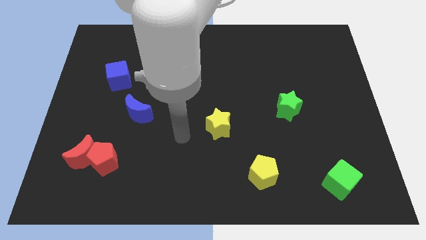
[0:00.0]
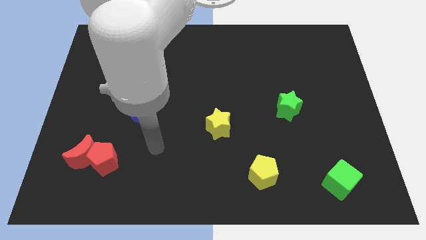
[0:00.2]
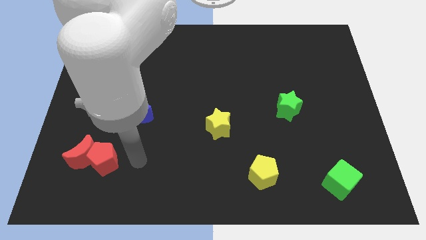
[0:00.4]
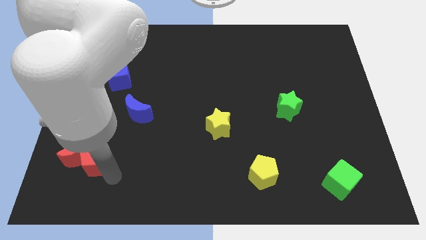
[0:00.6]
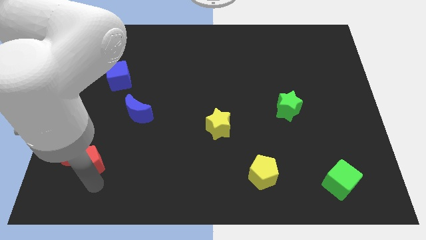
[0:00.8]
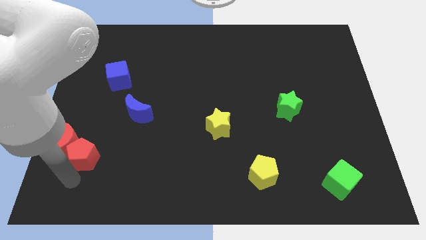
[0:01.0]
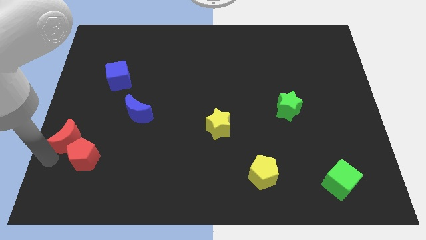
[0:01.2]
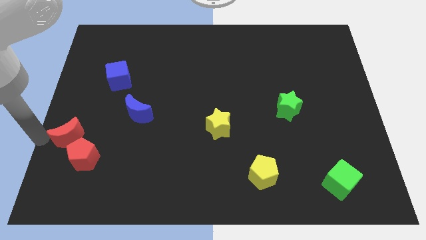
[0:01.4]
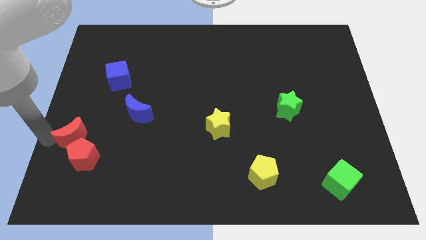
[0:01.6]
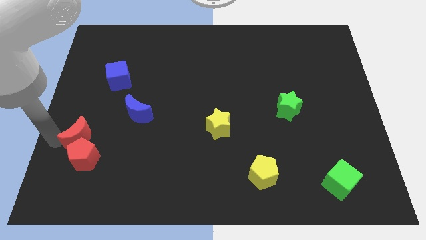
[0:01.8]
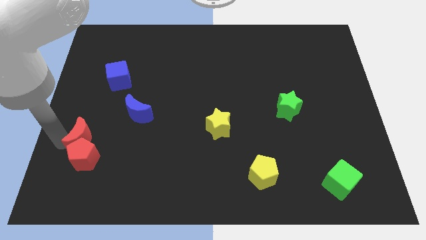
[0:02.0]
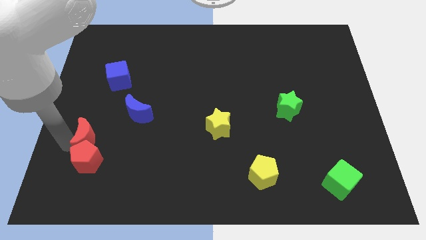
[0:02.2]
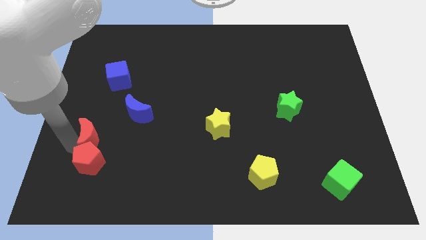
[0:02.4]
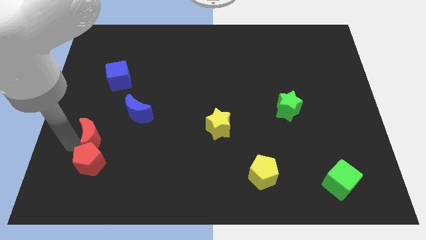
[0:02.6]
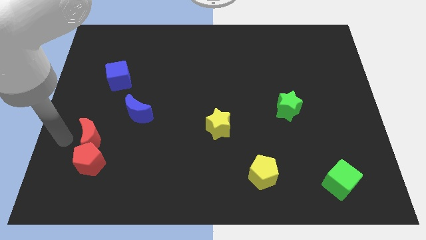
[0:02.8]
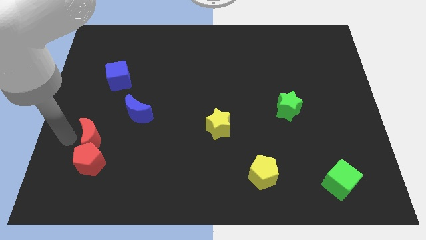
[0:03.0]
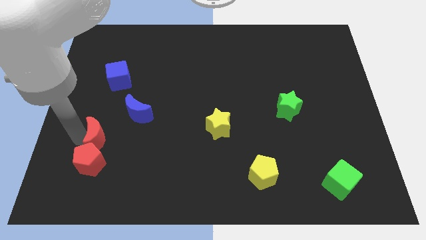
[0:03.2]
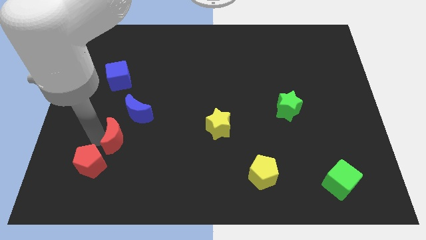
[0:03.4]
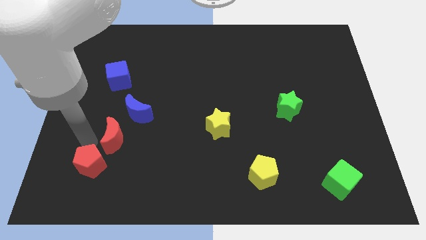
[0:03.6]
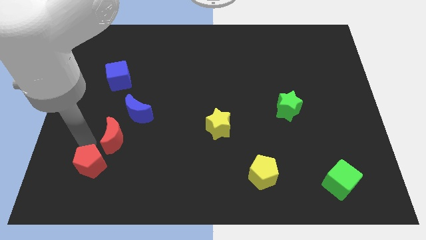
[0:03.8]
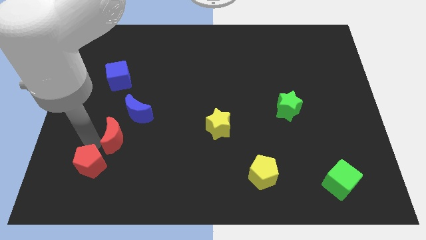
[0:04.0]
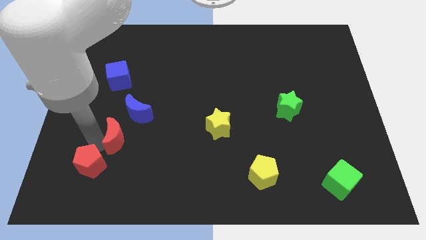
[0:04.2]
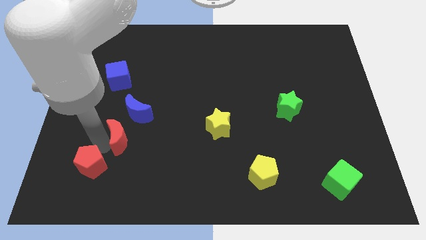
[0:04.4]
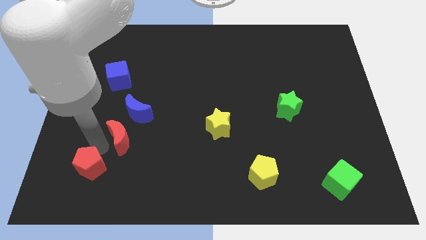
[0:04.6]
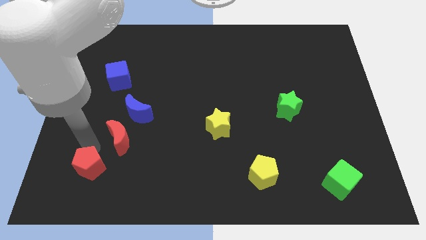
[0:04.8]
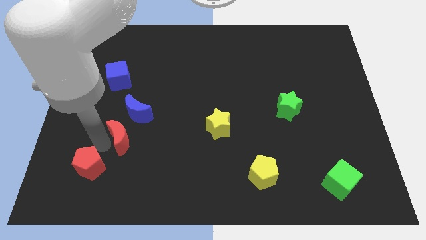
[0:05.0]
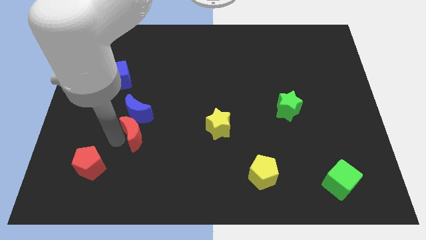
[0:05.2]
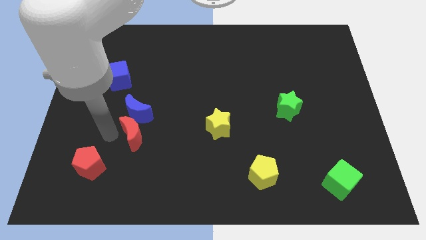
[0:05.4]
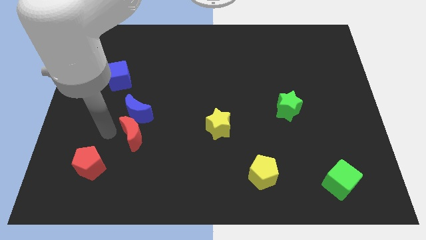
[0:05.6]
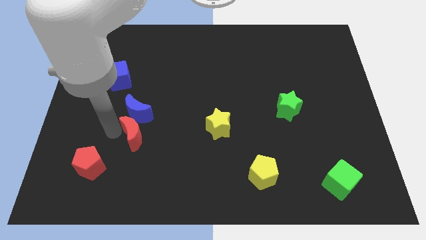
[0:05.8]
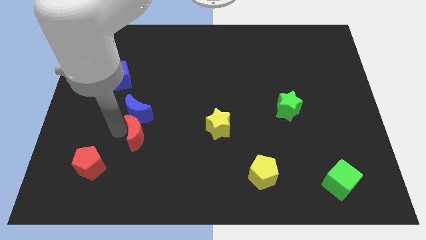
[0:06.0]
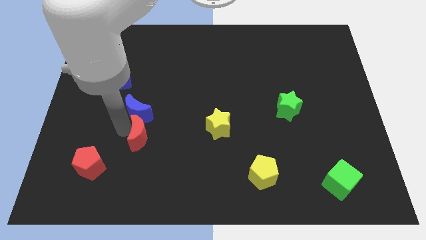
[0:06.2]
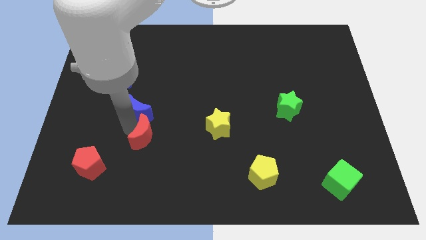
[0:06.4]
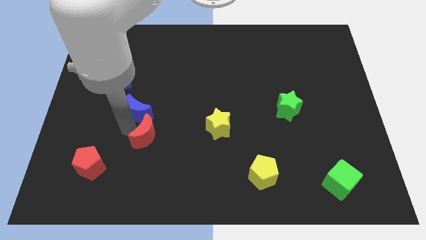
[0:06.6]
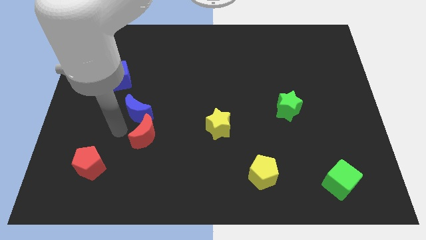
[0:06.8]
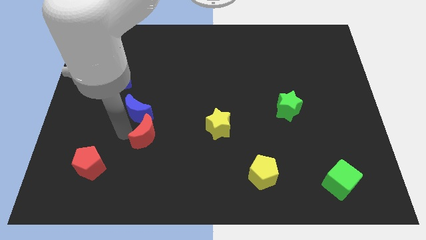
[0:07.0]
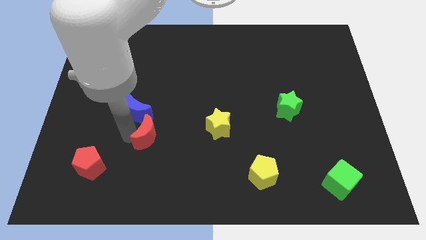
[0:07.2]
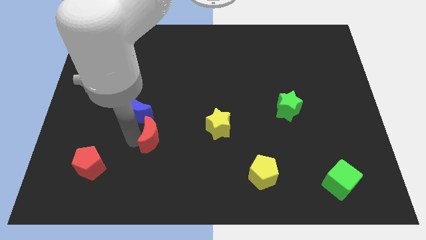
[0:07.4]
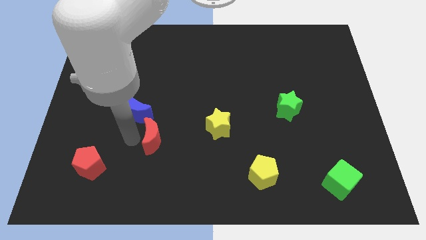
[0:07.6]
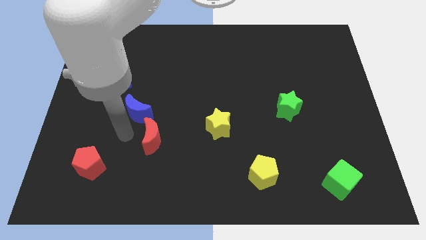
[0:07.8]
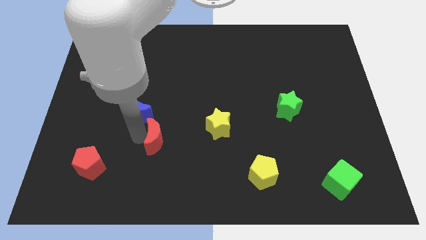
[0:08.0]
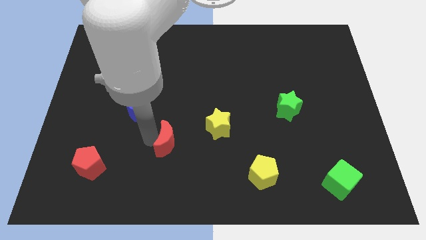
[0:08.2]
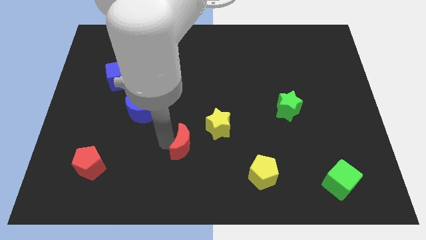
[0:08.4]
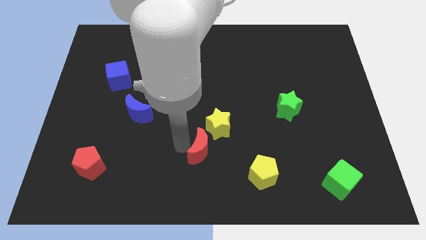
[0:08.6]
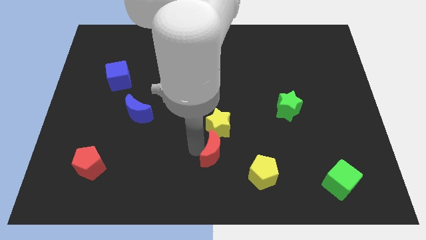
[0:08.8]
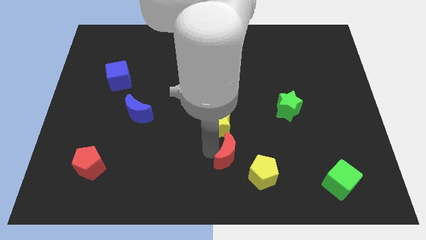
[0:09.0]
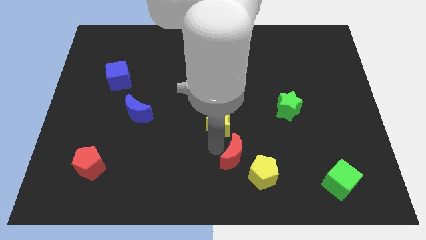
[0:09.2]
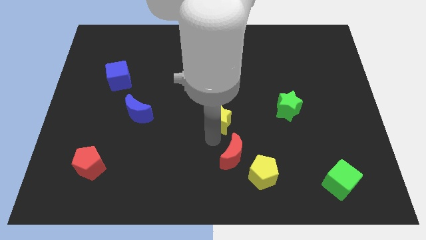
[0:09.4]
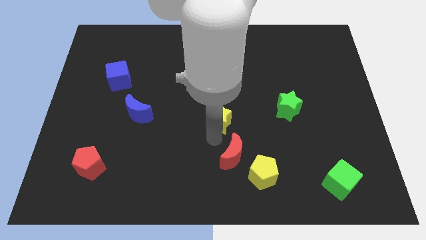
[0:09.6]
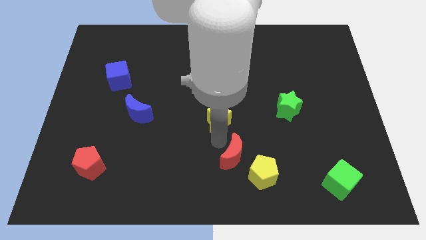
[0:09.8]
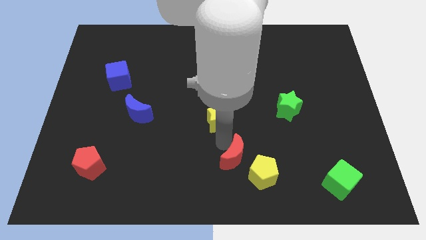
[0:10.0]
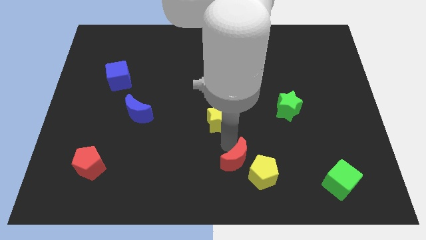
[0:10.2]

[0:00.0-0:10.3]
slide the red moon close to the yellow pentagon

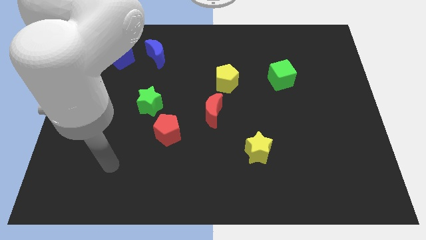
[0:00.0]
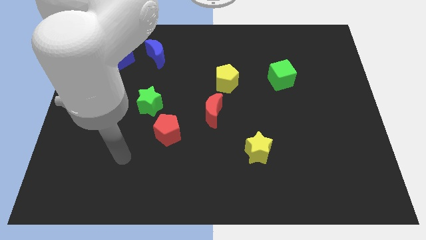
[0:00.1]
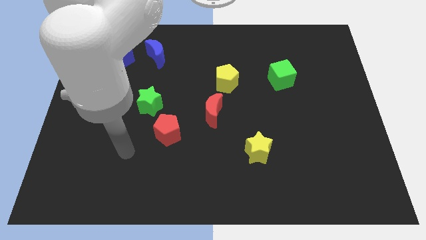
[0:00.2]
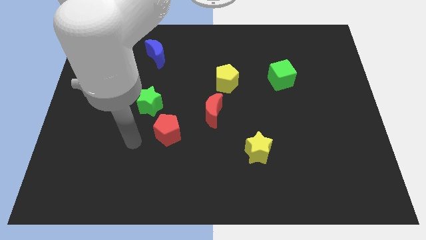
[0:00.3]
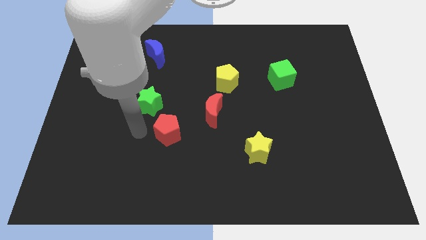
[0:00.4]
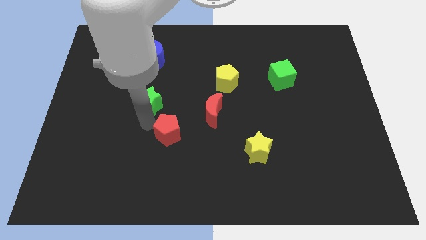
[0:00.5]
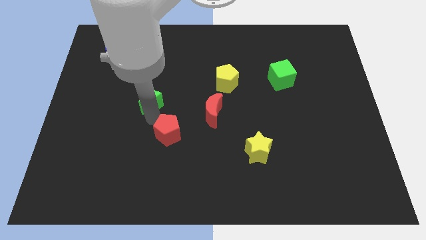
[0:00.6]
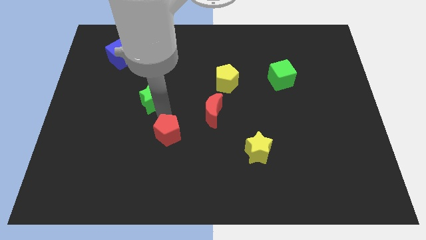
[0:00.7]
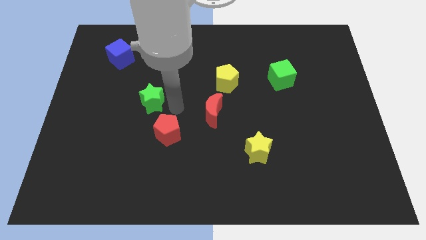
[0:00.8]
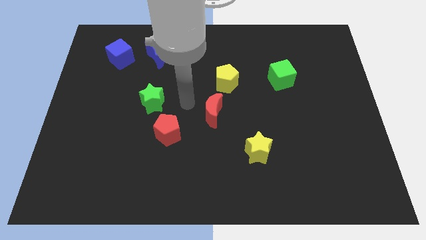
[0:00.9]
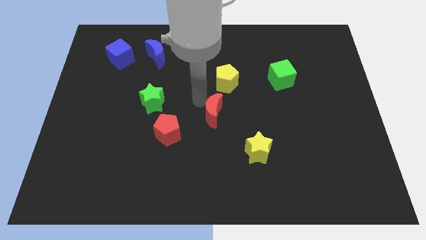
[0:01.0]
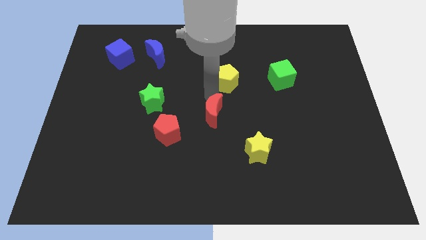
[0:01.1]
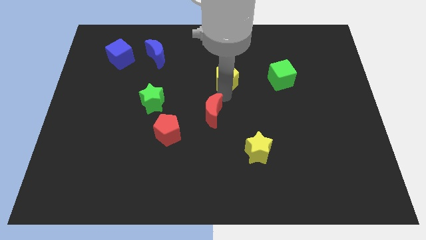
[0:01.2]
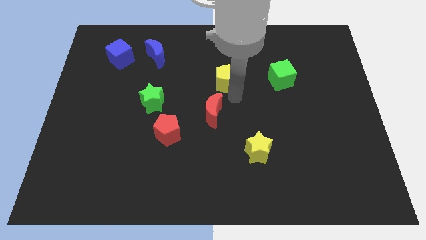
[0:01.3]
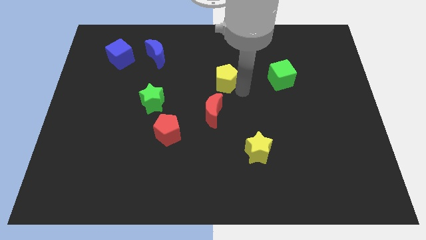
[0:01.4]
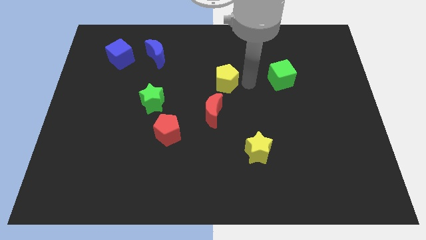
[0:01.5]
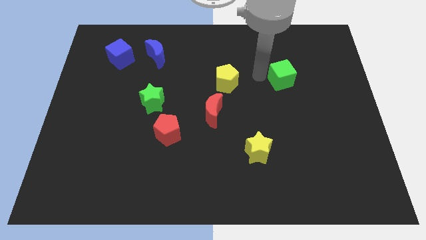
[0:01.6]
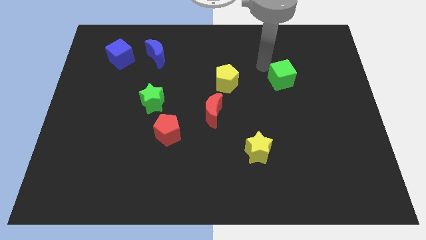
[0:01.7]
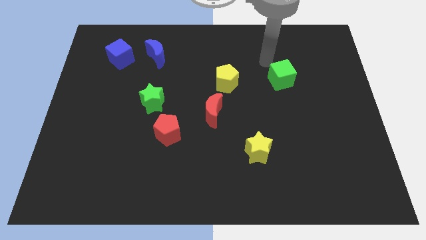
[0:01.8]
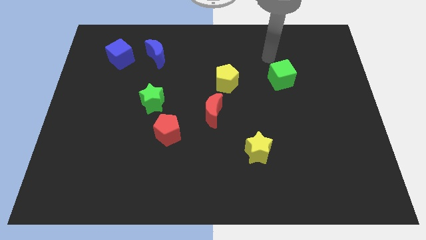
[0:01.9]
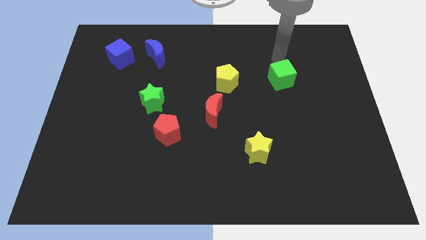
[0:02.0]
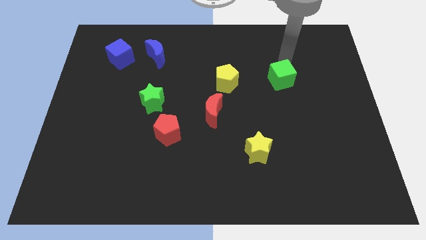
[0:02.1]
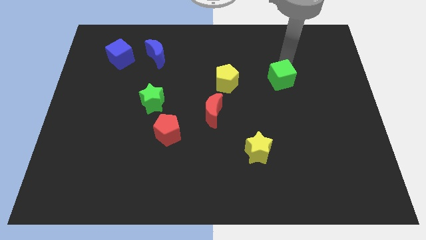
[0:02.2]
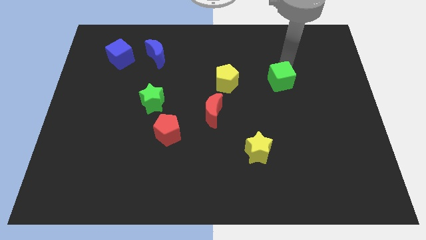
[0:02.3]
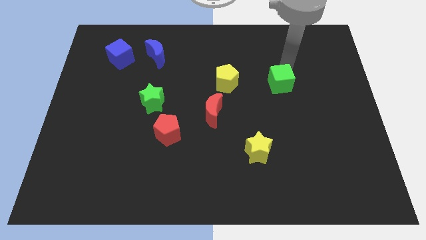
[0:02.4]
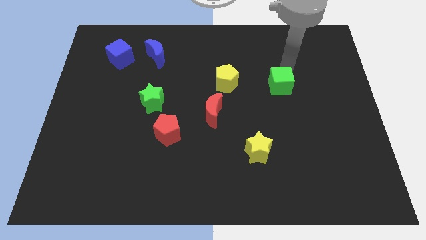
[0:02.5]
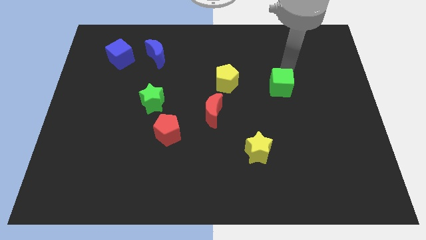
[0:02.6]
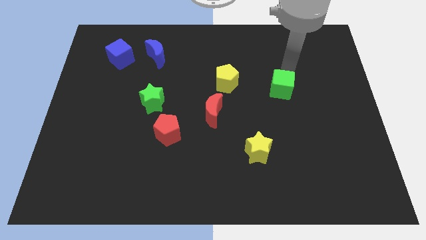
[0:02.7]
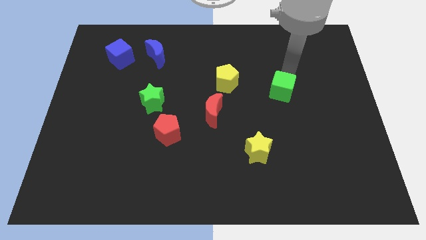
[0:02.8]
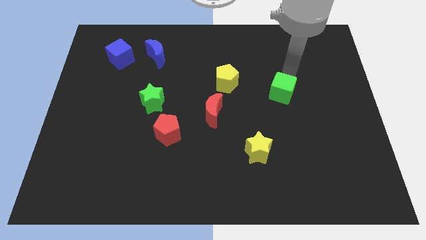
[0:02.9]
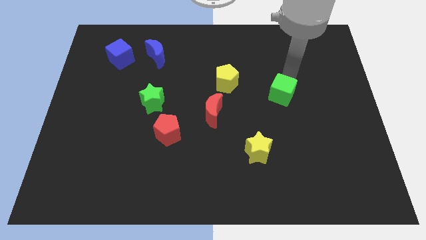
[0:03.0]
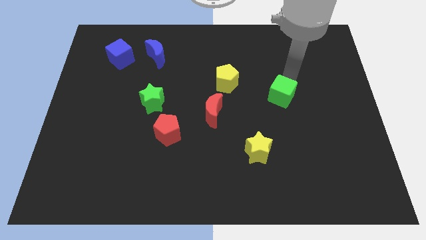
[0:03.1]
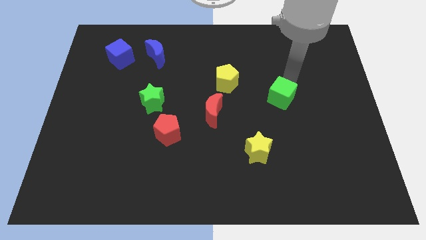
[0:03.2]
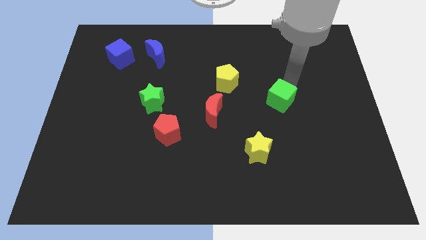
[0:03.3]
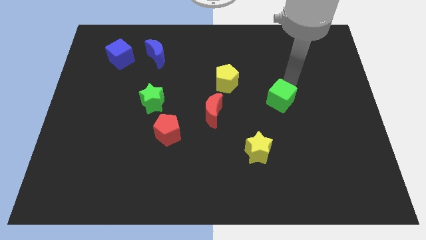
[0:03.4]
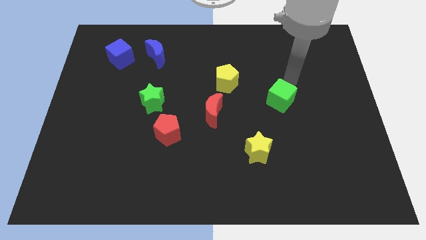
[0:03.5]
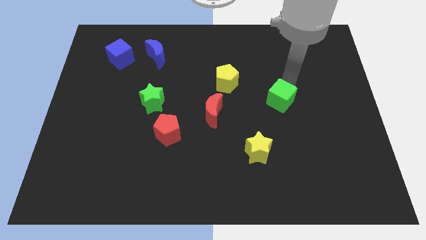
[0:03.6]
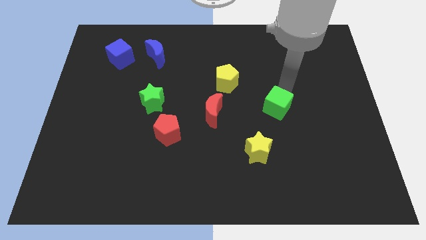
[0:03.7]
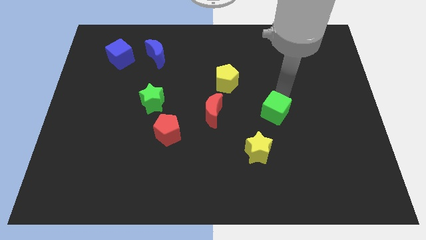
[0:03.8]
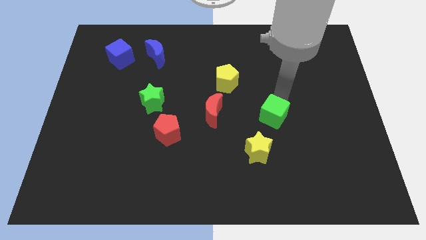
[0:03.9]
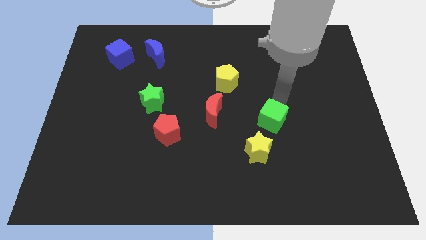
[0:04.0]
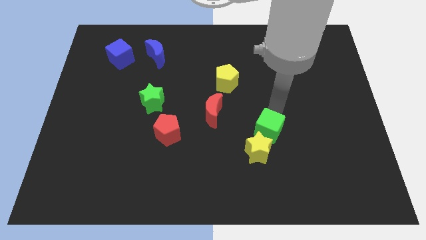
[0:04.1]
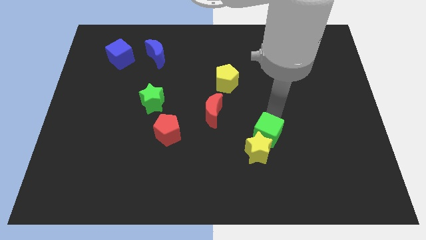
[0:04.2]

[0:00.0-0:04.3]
move the green cube to the yellow star
